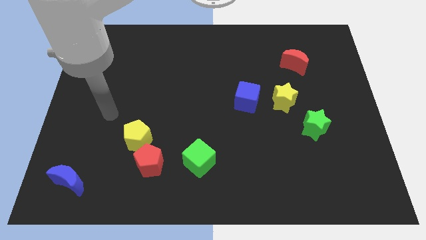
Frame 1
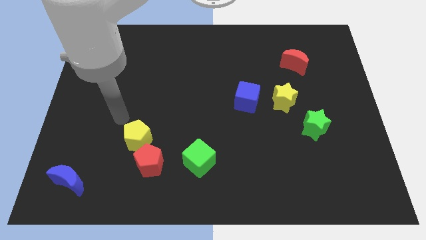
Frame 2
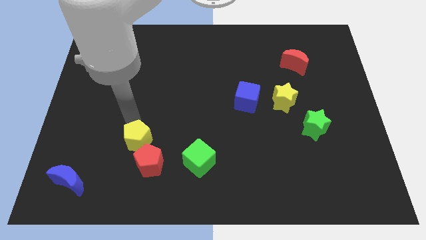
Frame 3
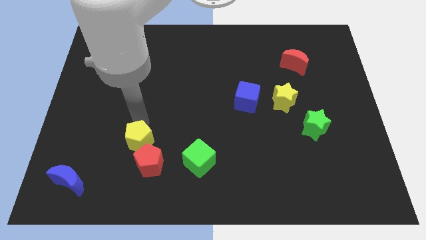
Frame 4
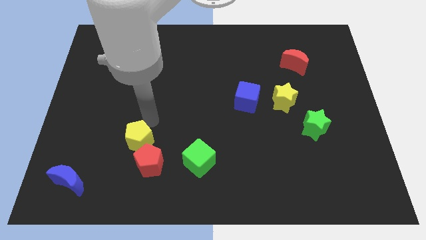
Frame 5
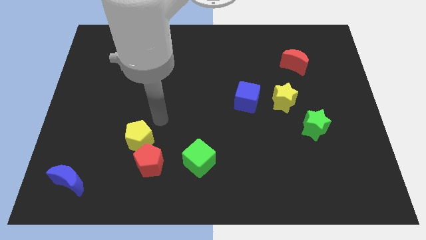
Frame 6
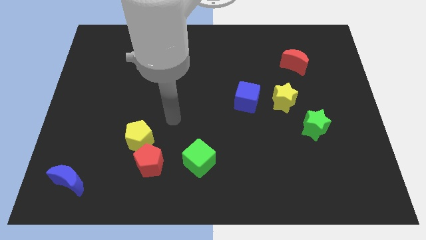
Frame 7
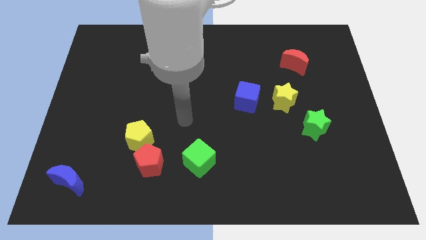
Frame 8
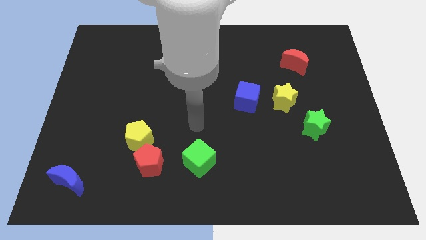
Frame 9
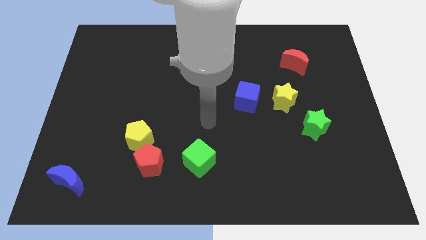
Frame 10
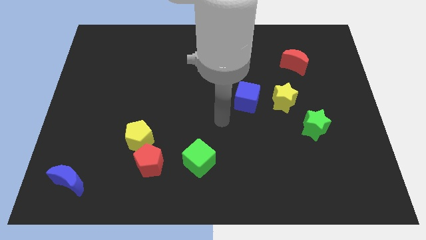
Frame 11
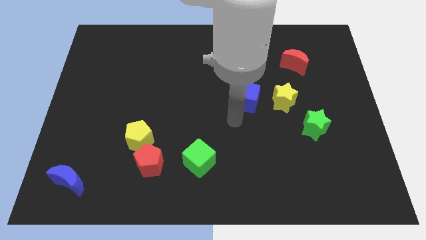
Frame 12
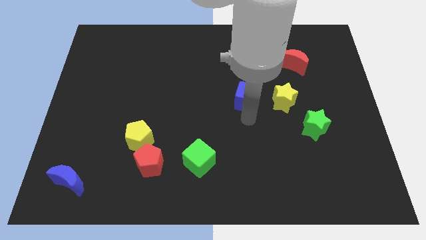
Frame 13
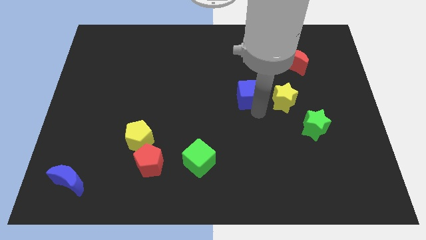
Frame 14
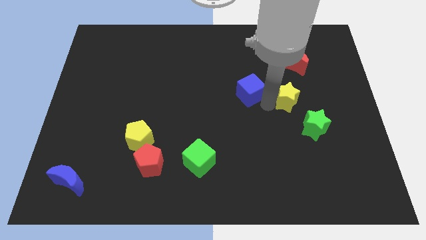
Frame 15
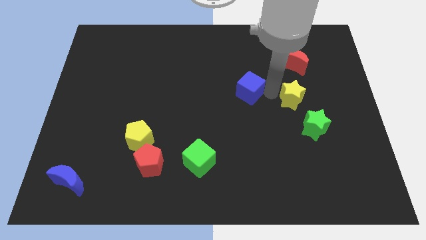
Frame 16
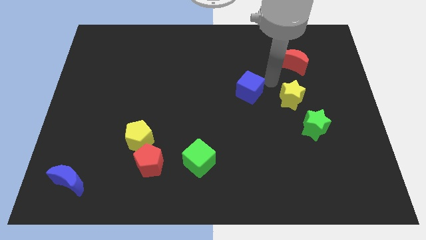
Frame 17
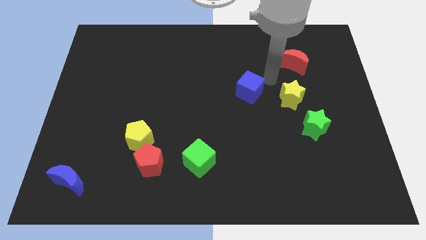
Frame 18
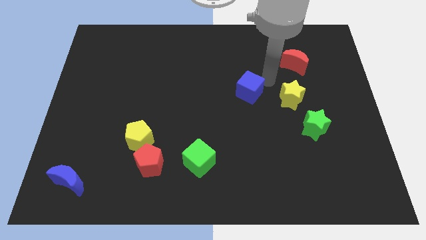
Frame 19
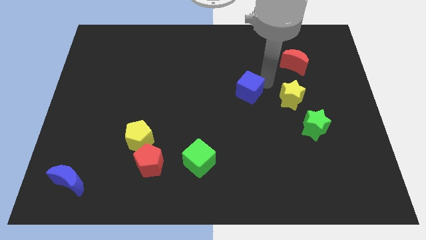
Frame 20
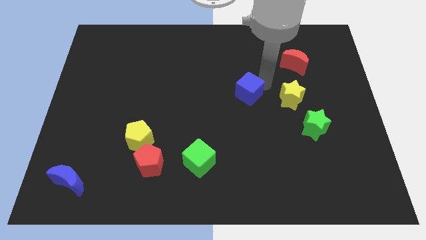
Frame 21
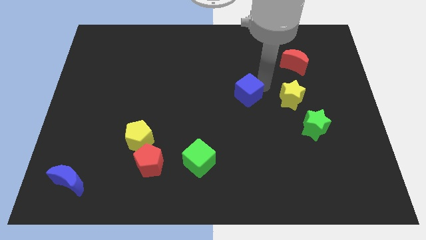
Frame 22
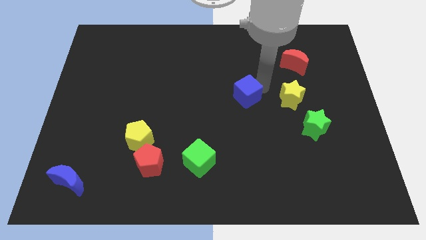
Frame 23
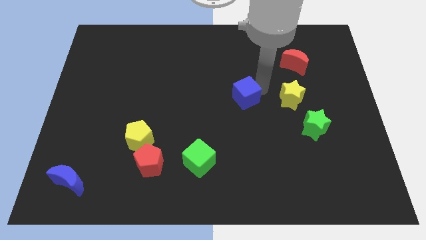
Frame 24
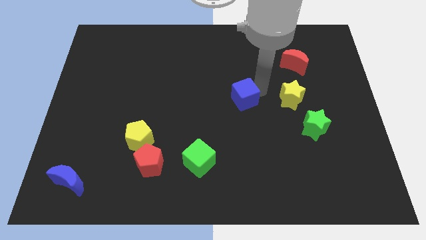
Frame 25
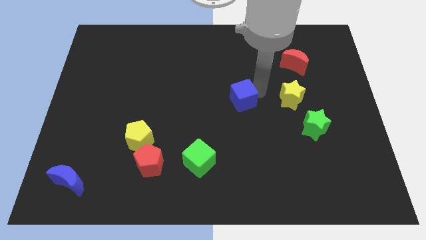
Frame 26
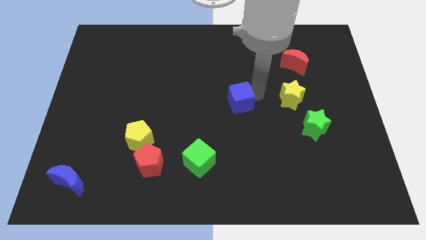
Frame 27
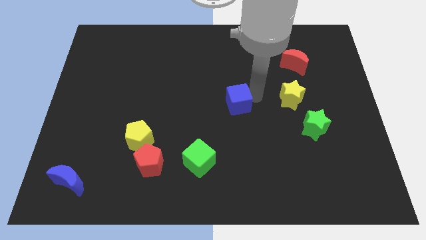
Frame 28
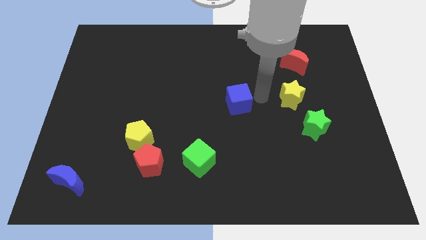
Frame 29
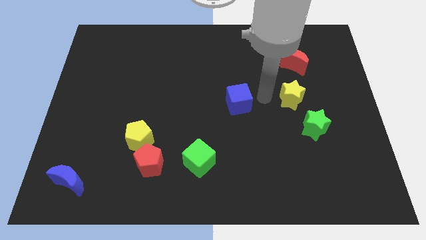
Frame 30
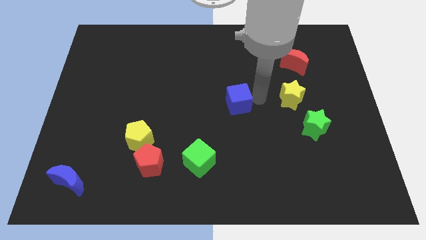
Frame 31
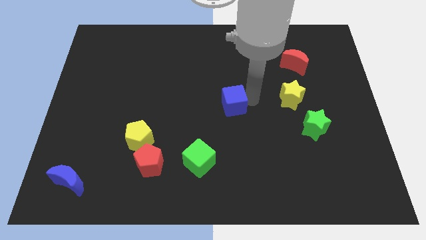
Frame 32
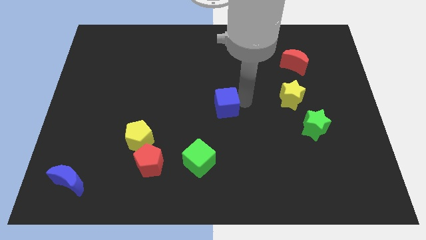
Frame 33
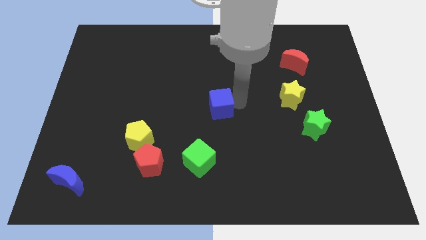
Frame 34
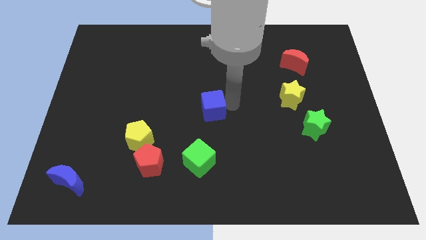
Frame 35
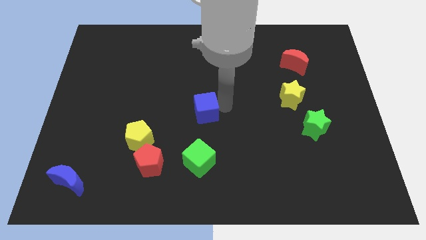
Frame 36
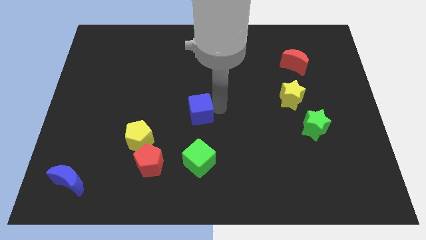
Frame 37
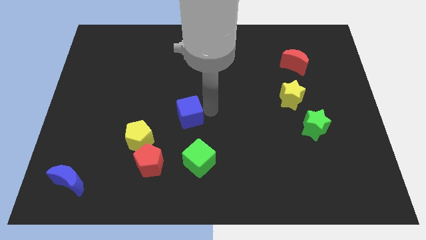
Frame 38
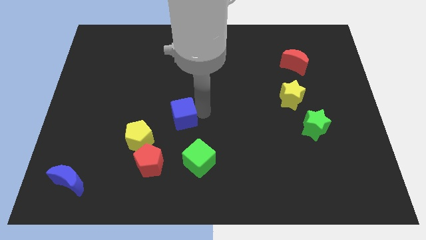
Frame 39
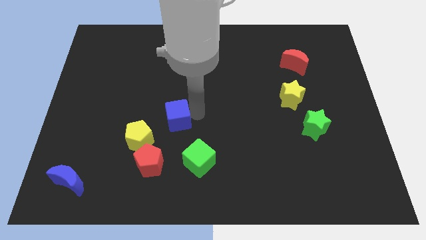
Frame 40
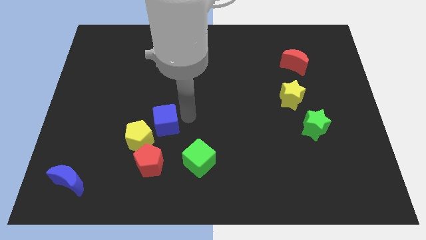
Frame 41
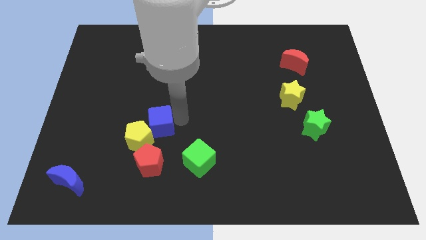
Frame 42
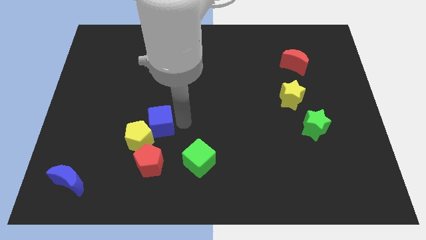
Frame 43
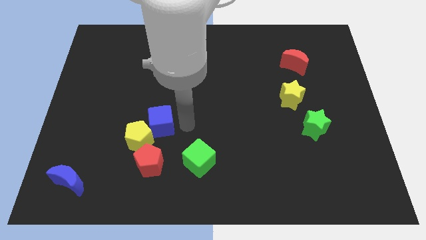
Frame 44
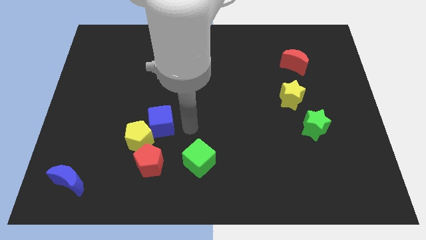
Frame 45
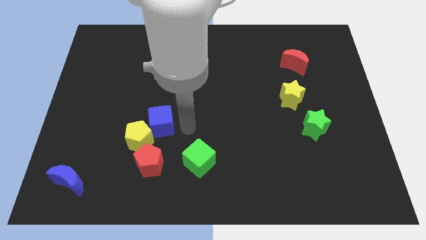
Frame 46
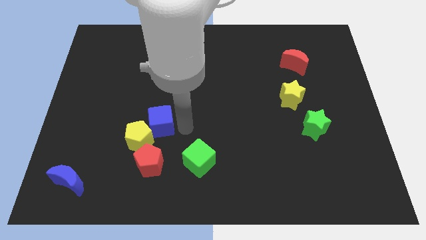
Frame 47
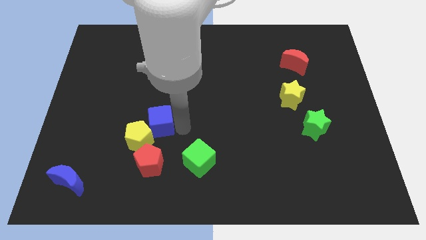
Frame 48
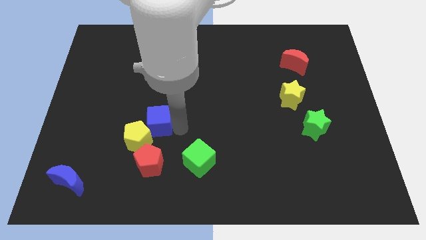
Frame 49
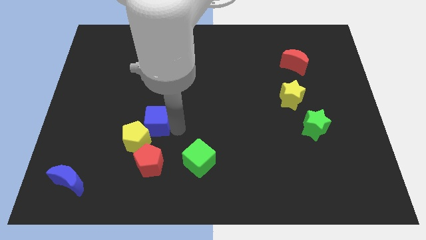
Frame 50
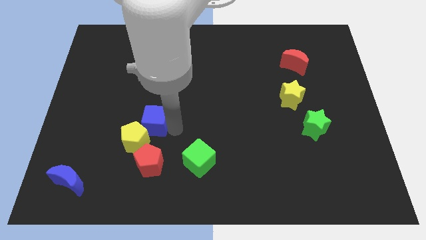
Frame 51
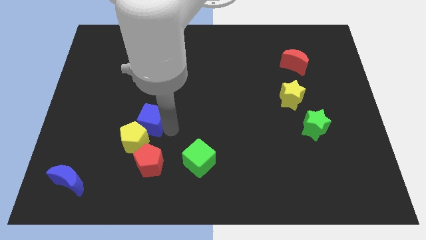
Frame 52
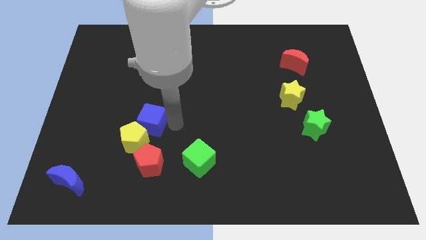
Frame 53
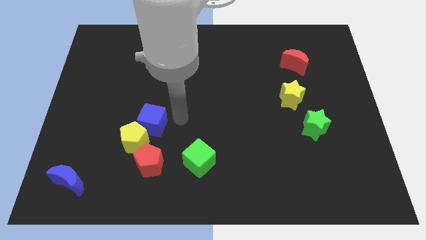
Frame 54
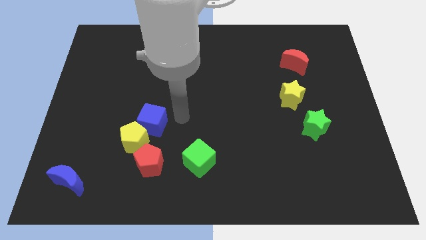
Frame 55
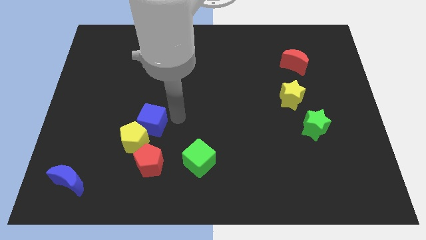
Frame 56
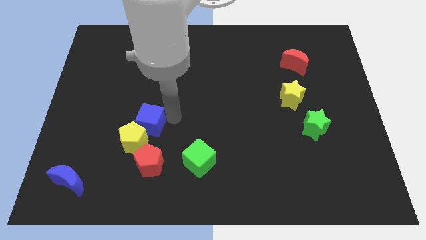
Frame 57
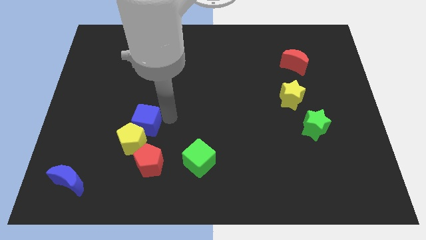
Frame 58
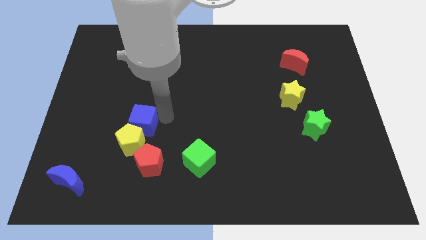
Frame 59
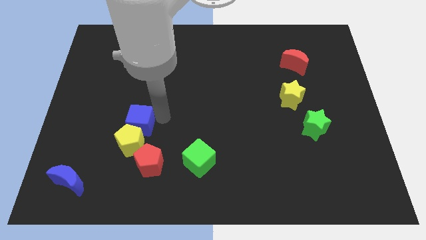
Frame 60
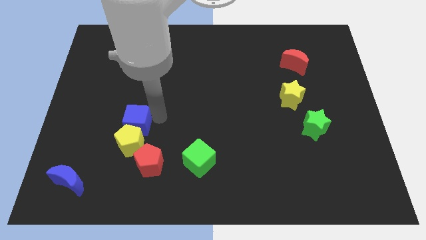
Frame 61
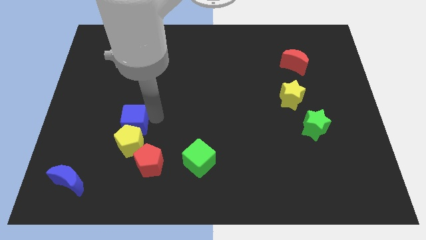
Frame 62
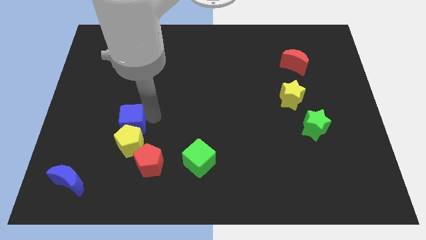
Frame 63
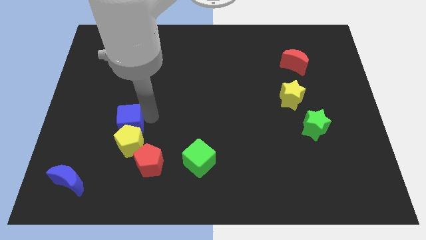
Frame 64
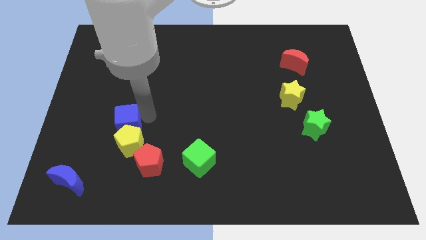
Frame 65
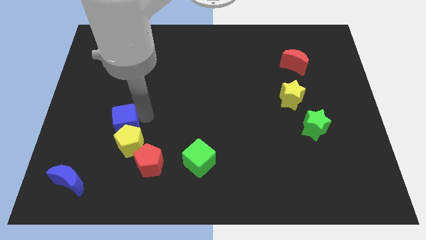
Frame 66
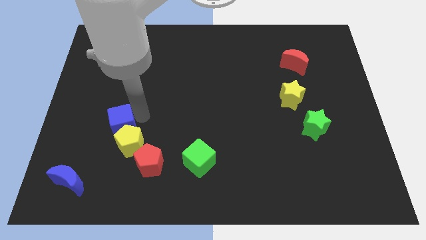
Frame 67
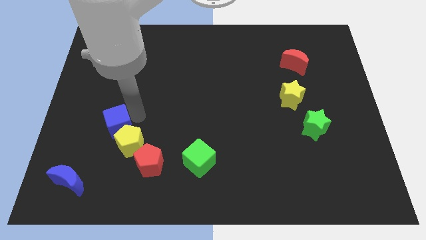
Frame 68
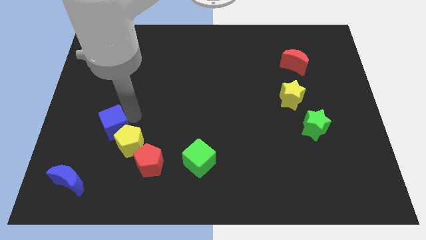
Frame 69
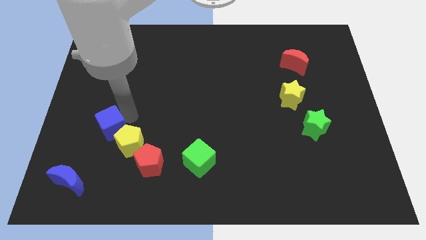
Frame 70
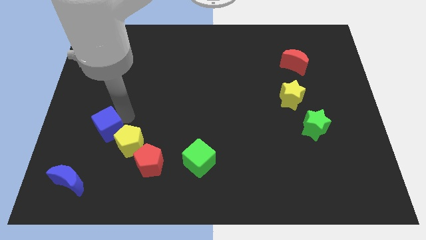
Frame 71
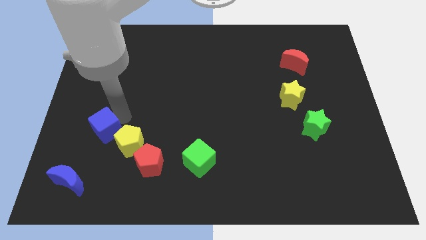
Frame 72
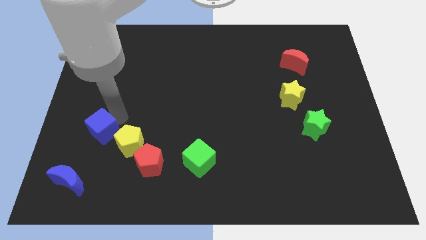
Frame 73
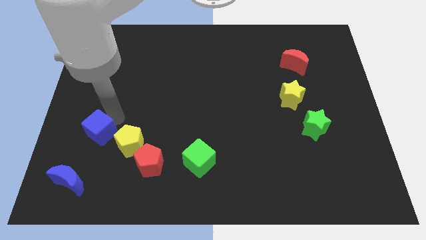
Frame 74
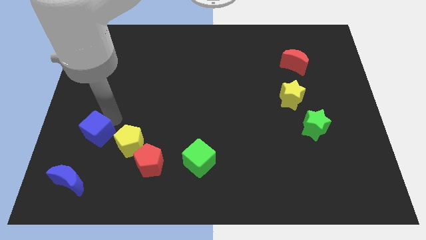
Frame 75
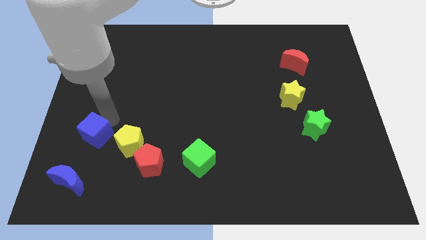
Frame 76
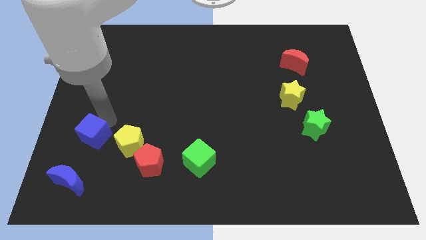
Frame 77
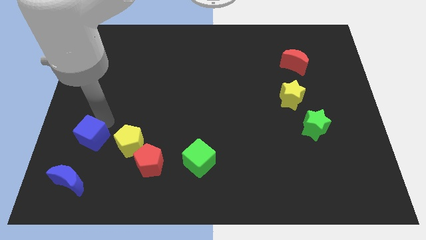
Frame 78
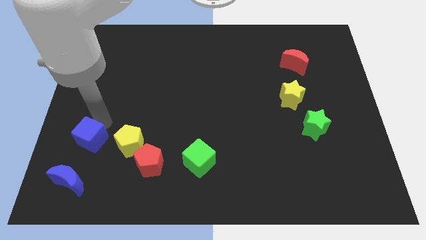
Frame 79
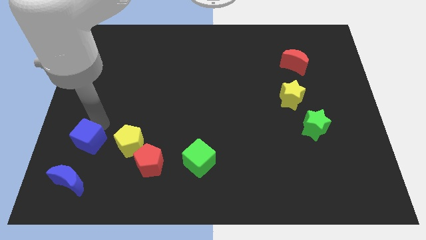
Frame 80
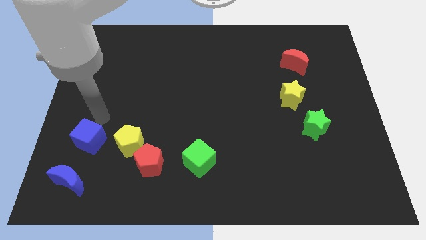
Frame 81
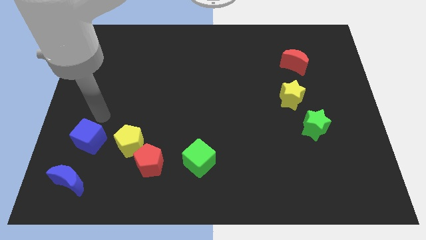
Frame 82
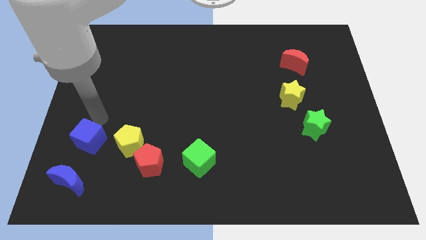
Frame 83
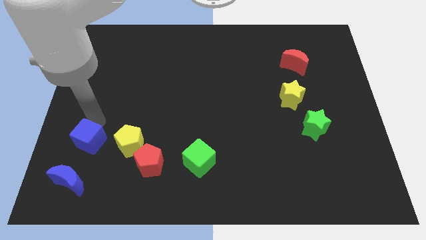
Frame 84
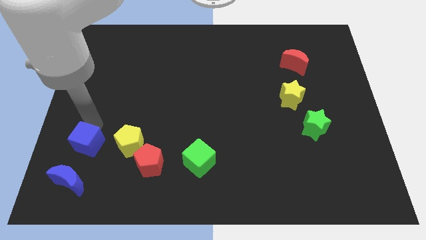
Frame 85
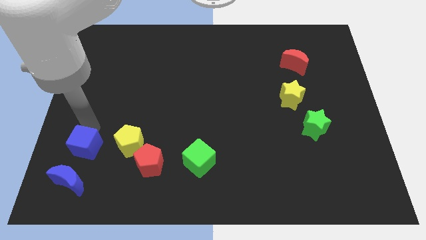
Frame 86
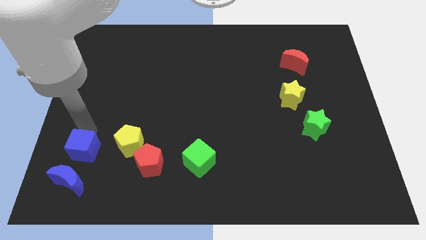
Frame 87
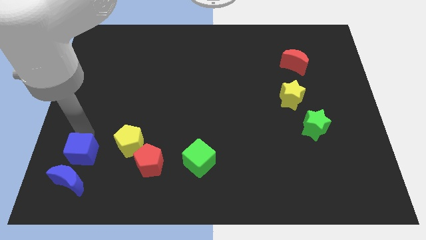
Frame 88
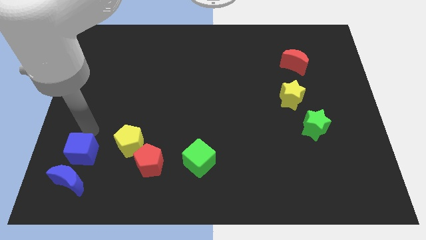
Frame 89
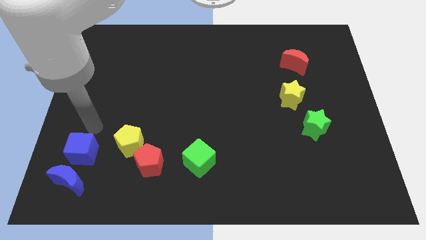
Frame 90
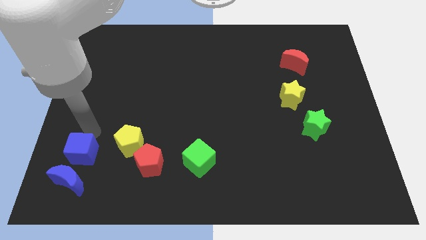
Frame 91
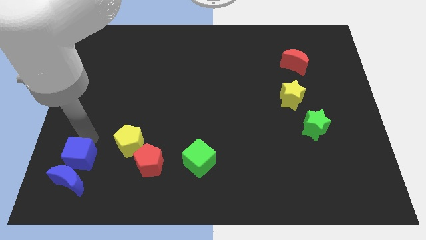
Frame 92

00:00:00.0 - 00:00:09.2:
slide the blue cube to the blue moon
